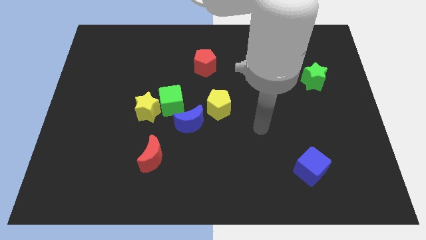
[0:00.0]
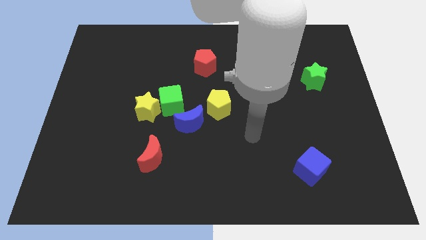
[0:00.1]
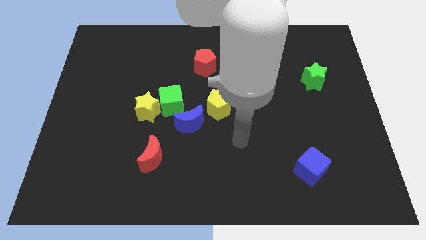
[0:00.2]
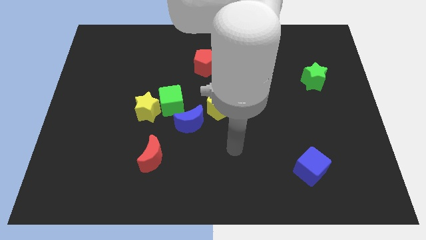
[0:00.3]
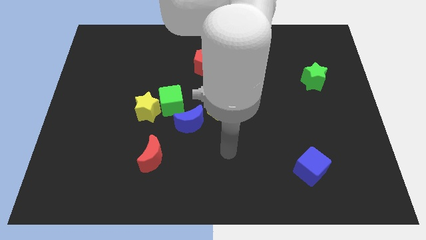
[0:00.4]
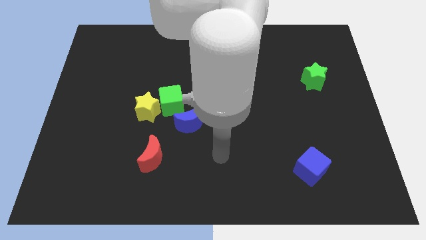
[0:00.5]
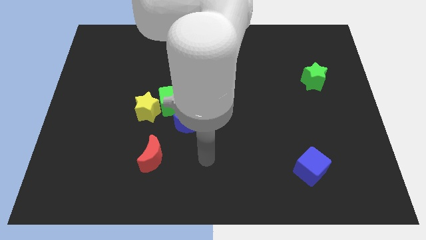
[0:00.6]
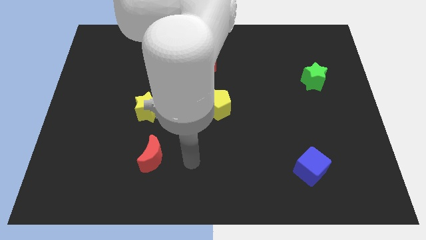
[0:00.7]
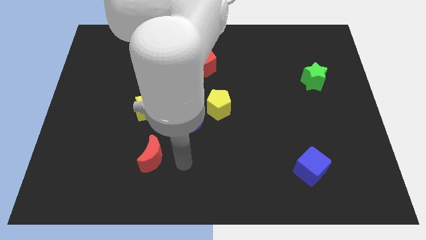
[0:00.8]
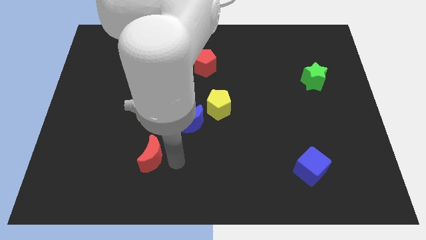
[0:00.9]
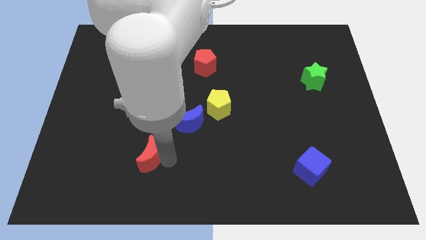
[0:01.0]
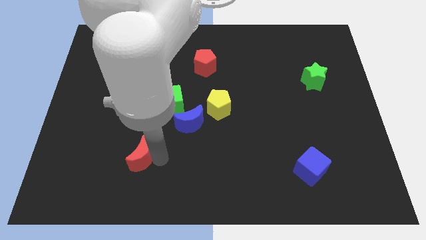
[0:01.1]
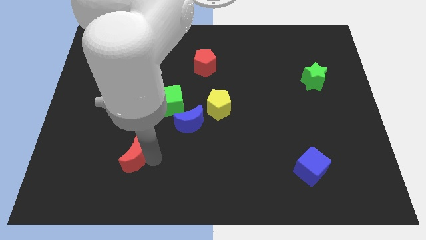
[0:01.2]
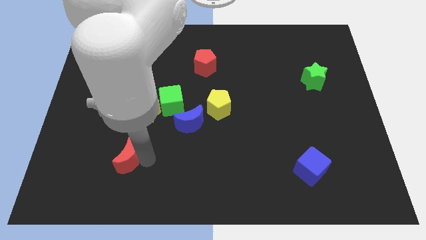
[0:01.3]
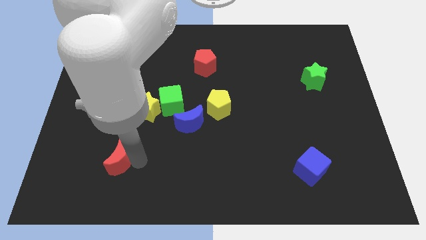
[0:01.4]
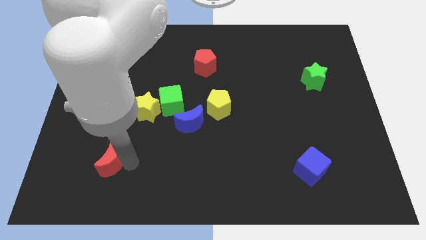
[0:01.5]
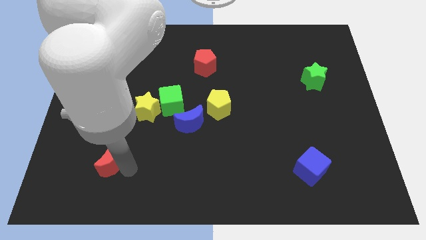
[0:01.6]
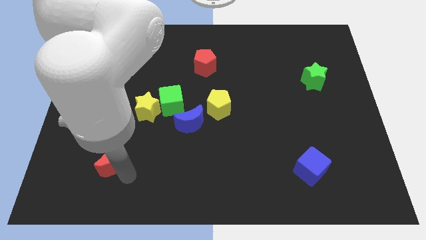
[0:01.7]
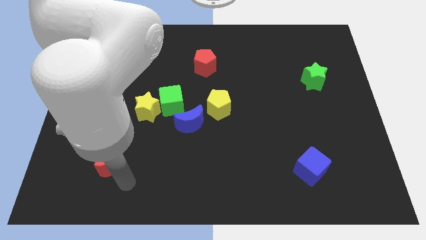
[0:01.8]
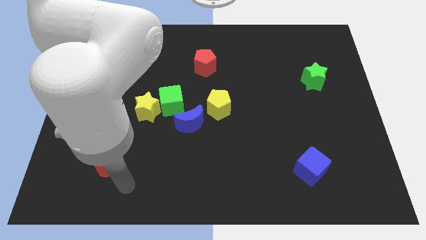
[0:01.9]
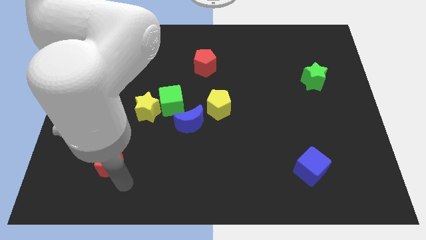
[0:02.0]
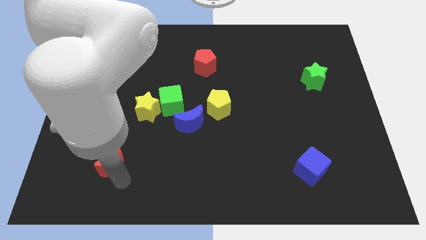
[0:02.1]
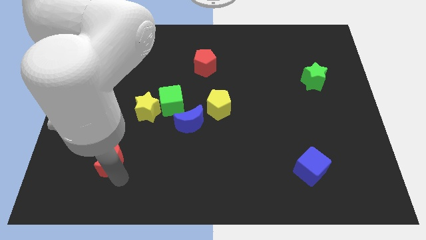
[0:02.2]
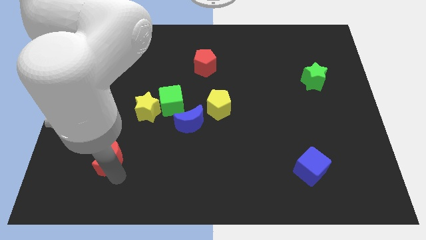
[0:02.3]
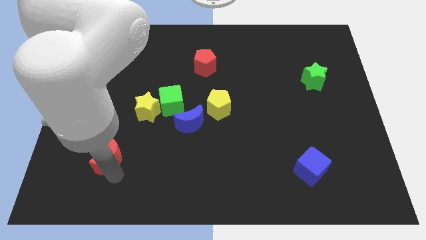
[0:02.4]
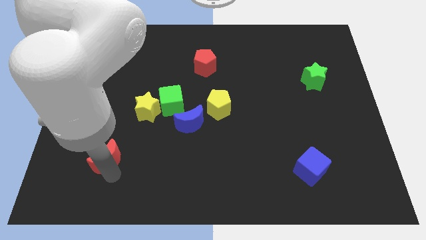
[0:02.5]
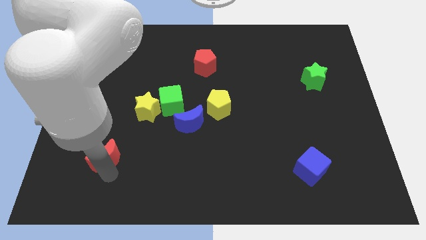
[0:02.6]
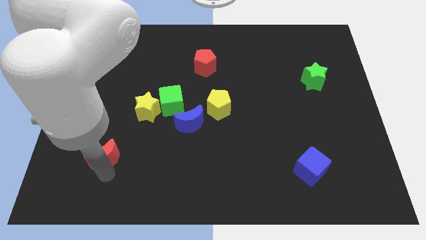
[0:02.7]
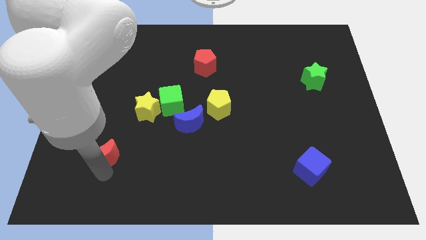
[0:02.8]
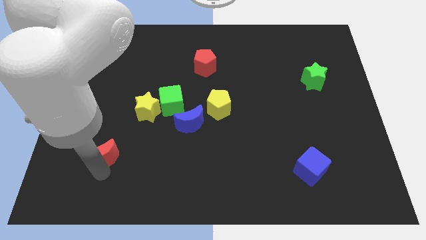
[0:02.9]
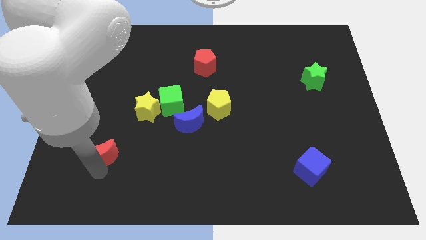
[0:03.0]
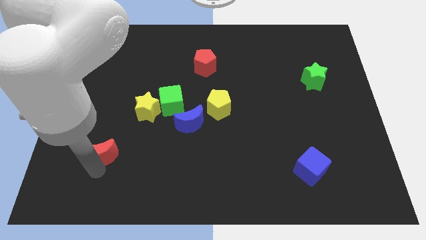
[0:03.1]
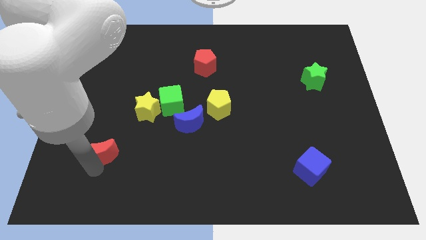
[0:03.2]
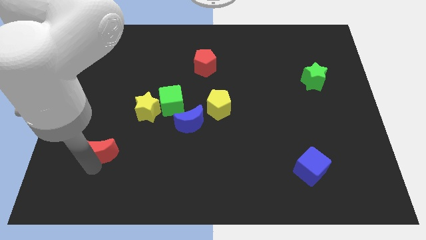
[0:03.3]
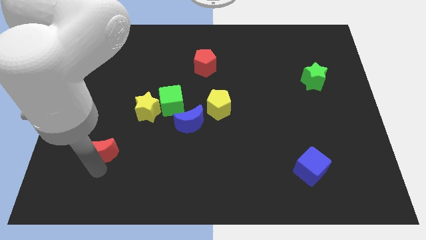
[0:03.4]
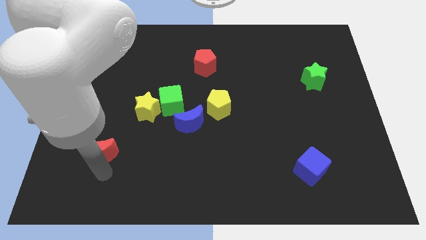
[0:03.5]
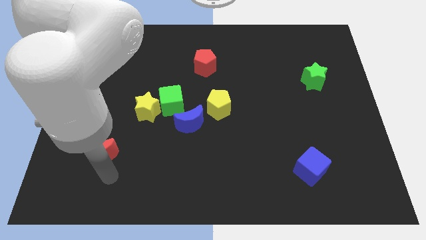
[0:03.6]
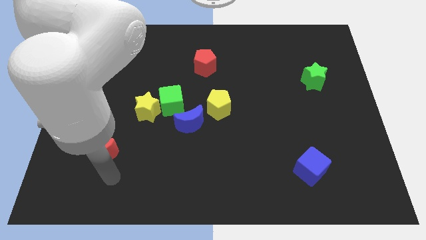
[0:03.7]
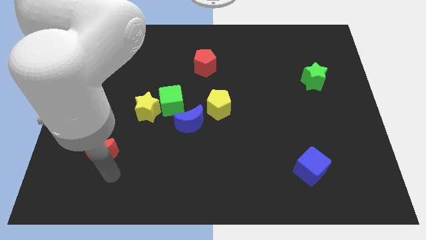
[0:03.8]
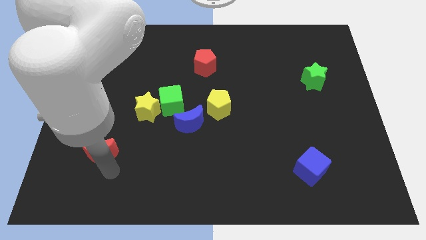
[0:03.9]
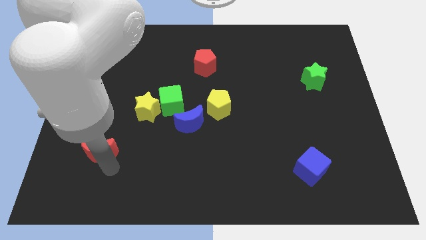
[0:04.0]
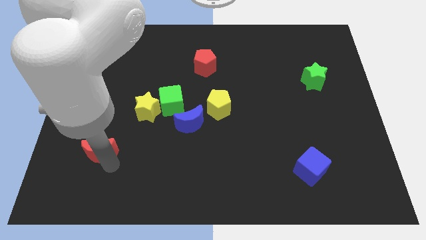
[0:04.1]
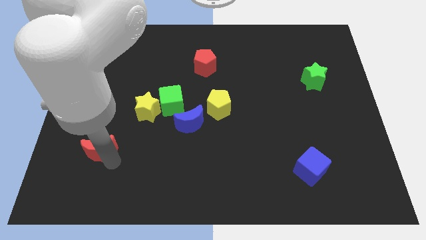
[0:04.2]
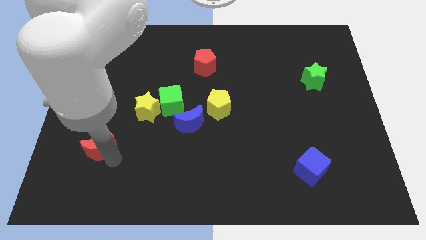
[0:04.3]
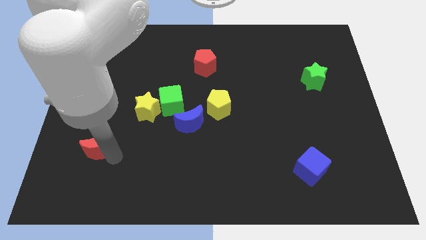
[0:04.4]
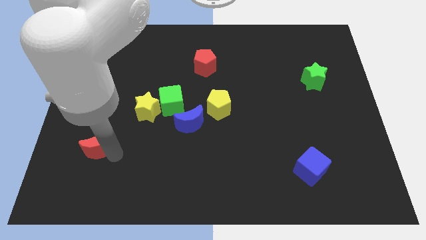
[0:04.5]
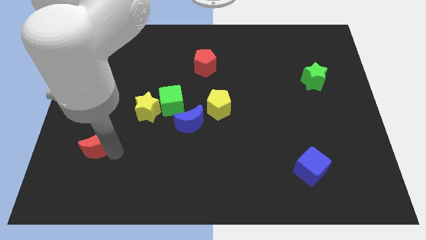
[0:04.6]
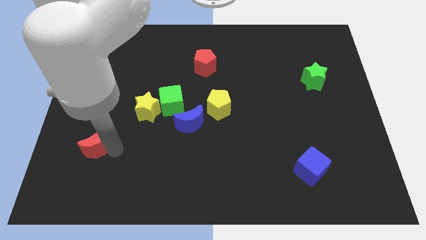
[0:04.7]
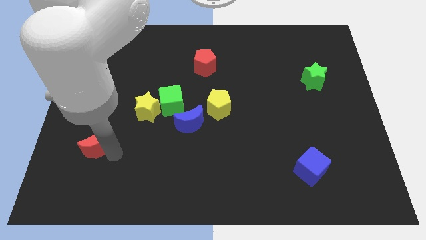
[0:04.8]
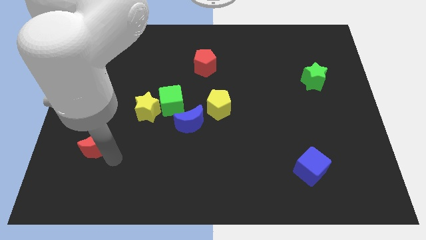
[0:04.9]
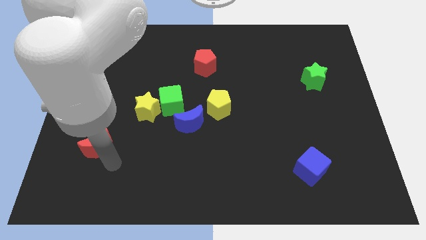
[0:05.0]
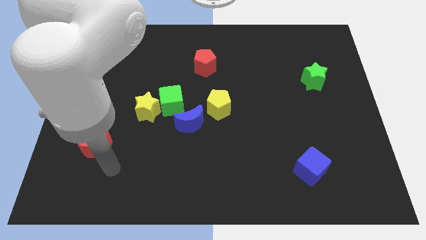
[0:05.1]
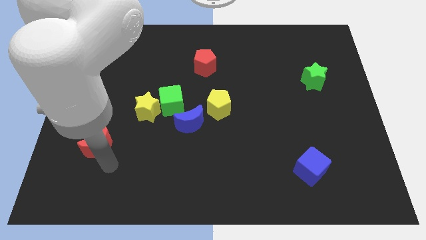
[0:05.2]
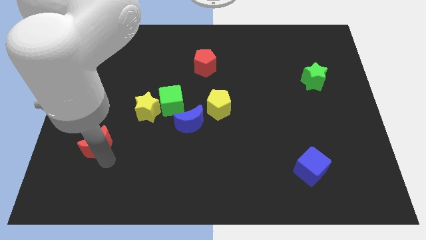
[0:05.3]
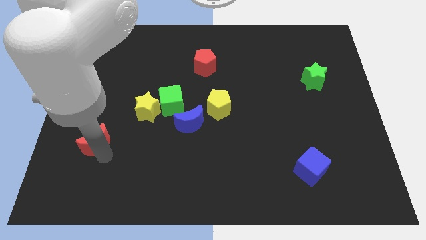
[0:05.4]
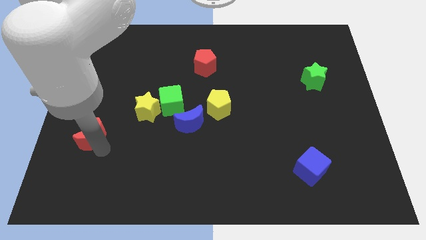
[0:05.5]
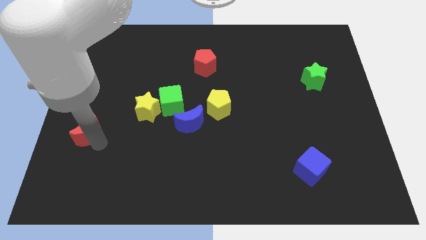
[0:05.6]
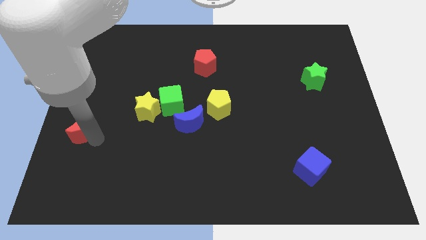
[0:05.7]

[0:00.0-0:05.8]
move the red moon to the center left

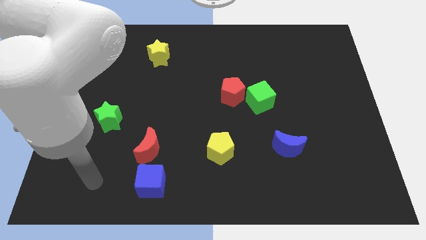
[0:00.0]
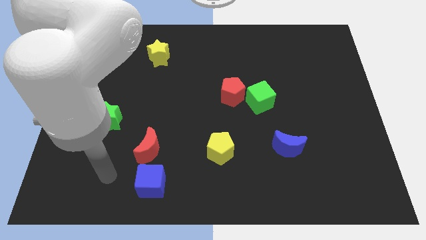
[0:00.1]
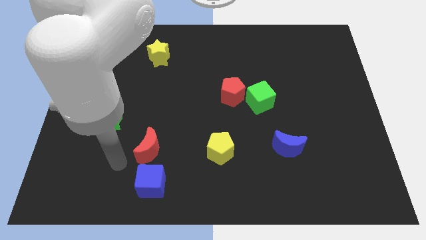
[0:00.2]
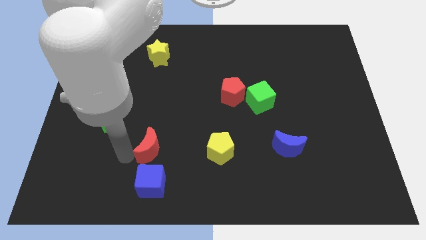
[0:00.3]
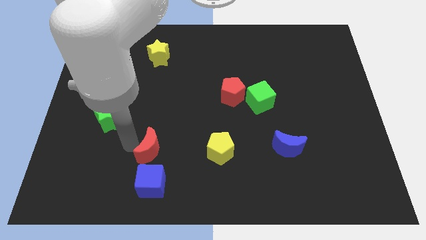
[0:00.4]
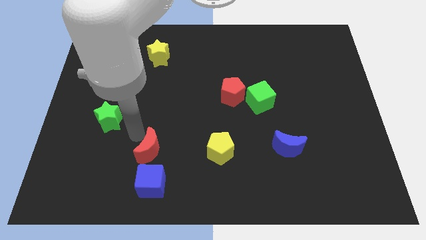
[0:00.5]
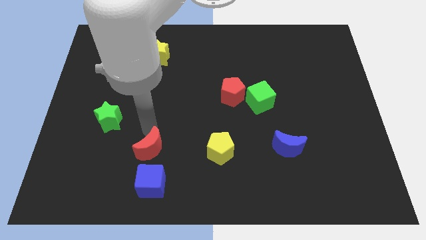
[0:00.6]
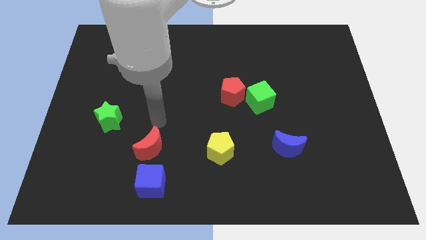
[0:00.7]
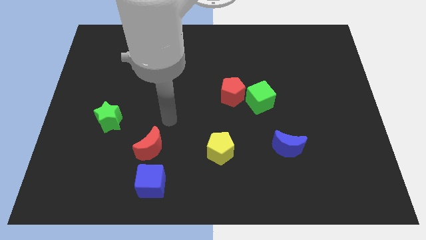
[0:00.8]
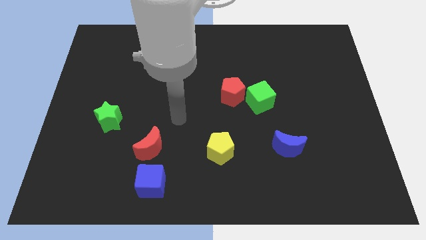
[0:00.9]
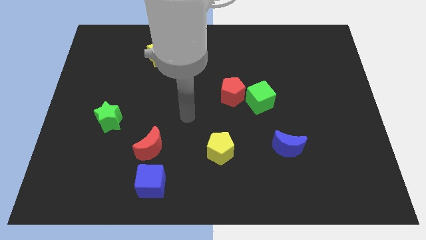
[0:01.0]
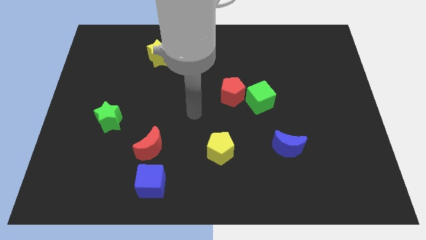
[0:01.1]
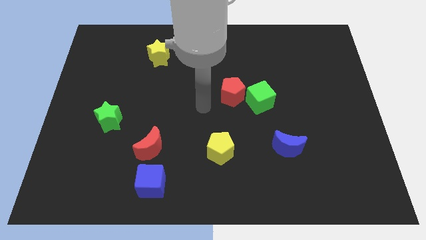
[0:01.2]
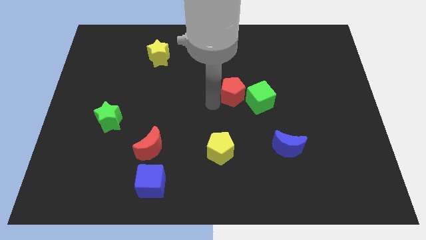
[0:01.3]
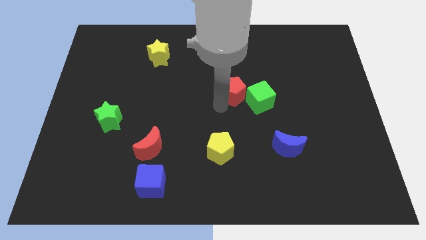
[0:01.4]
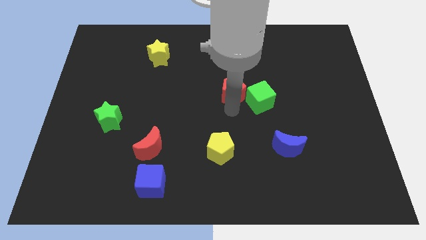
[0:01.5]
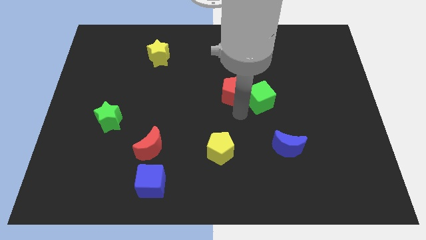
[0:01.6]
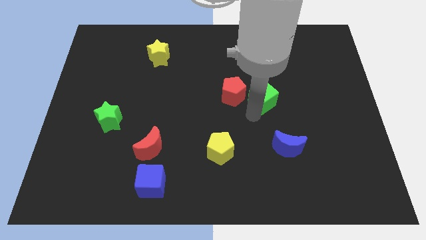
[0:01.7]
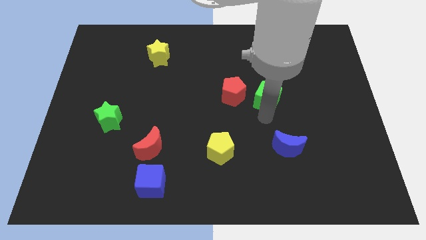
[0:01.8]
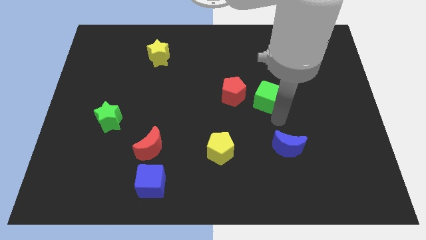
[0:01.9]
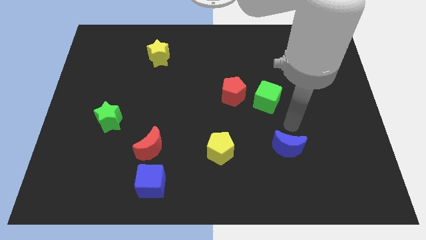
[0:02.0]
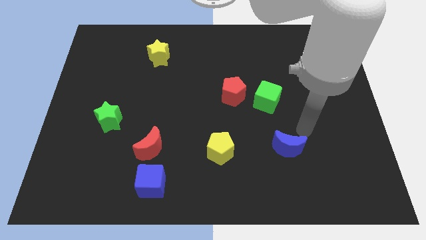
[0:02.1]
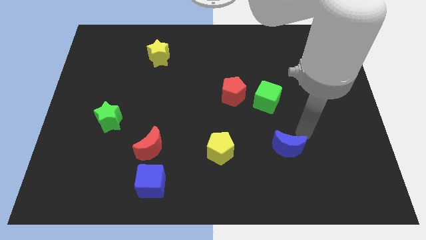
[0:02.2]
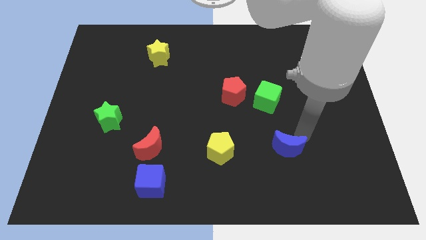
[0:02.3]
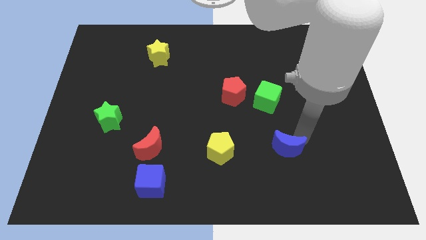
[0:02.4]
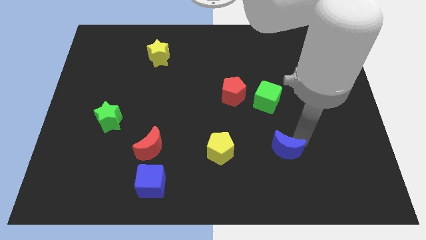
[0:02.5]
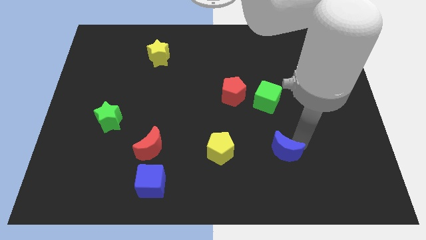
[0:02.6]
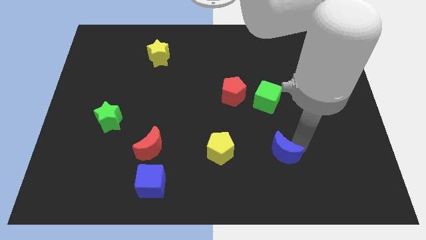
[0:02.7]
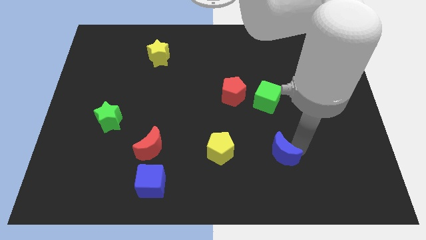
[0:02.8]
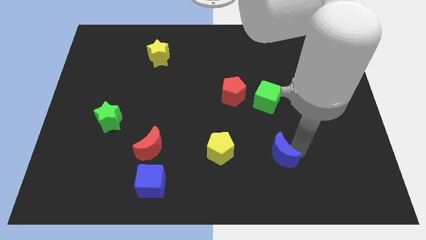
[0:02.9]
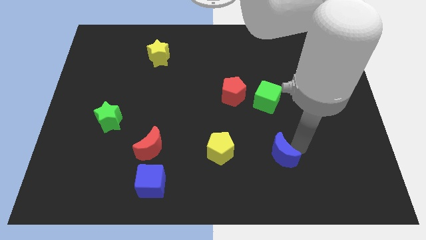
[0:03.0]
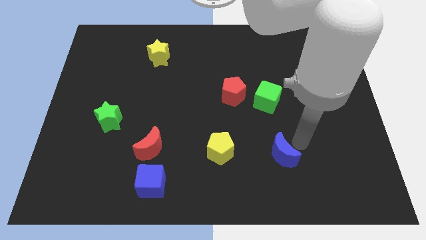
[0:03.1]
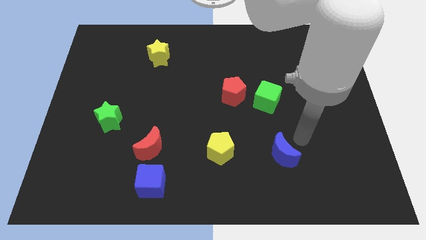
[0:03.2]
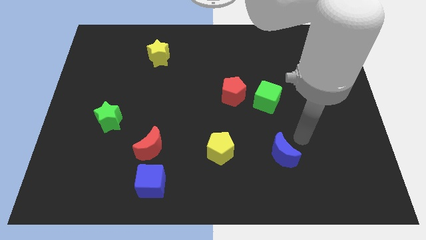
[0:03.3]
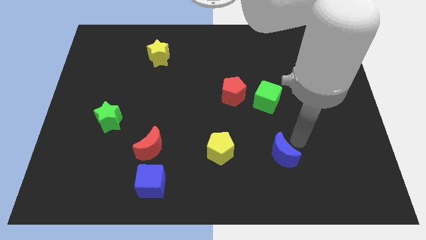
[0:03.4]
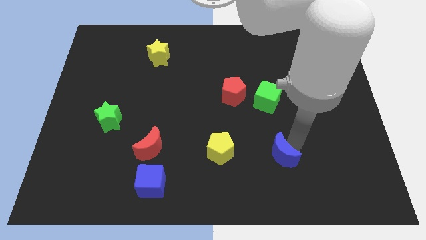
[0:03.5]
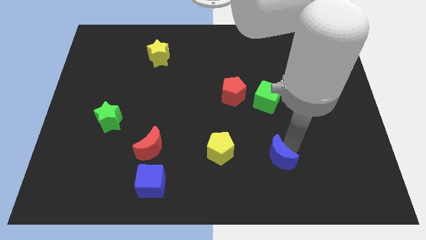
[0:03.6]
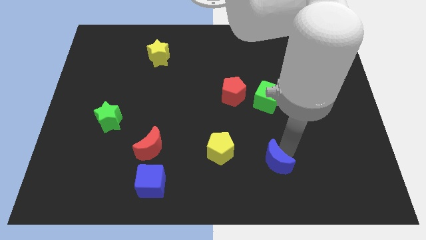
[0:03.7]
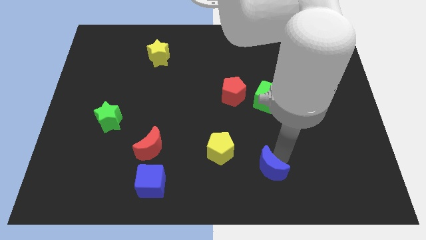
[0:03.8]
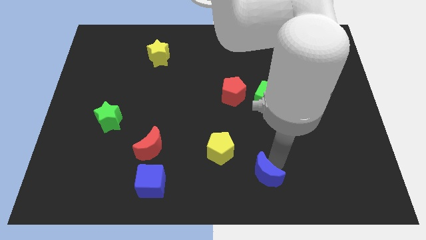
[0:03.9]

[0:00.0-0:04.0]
slide the blue moon to the bottom
